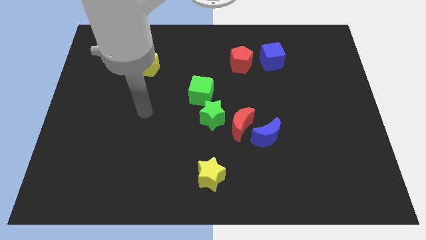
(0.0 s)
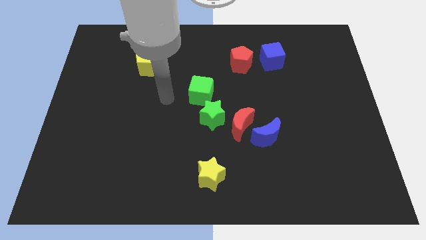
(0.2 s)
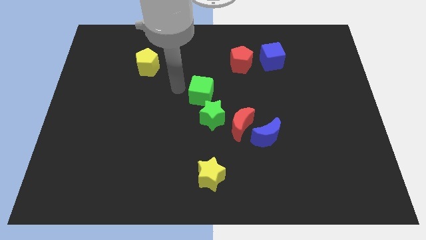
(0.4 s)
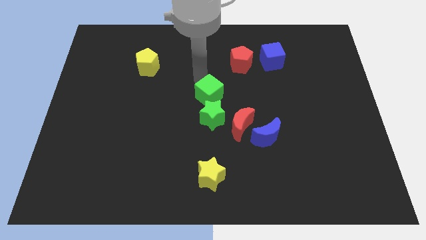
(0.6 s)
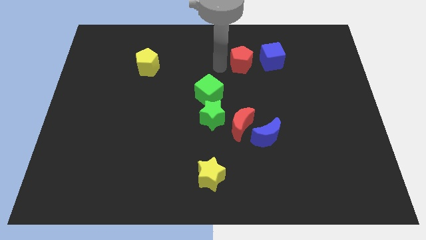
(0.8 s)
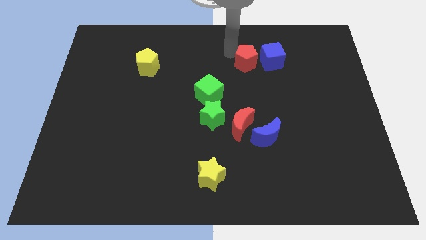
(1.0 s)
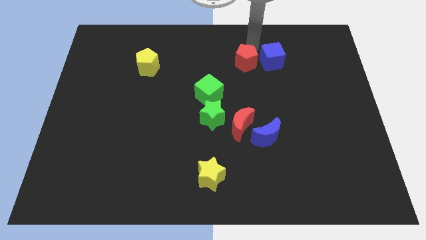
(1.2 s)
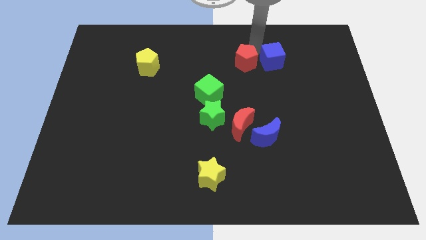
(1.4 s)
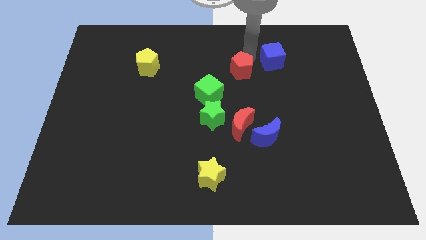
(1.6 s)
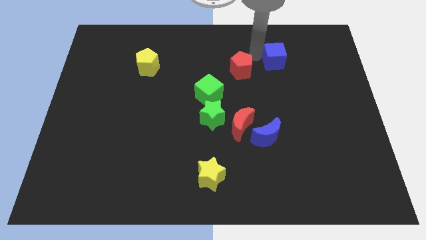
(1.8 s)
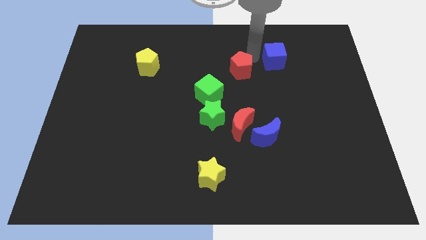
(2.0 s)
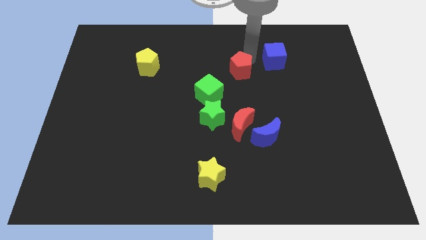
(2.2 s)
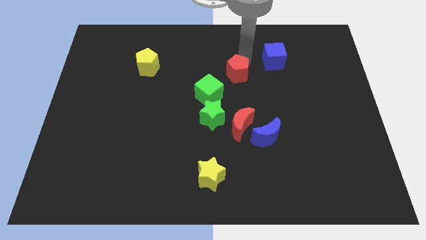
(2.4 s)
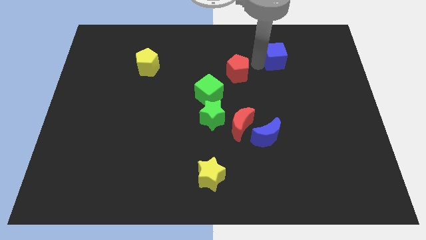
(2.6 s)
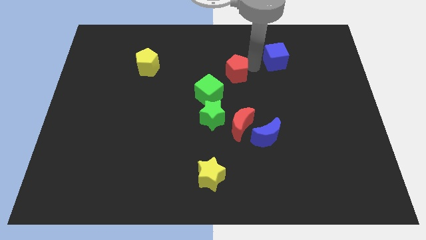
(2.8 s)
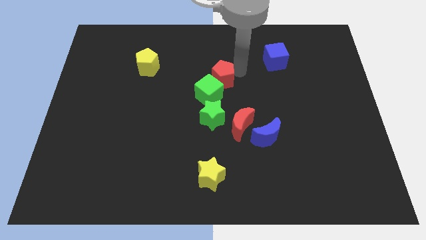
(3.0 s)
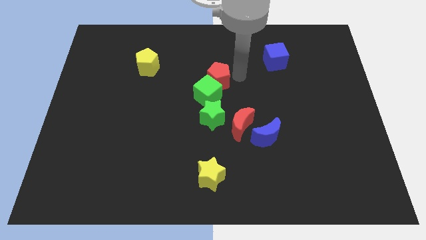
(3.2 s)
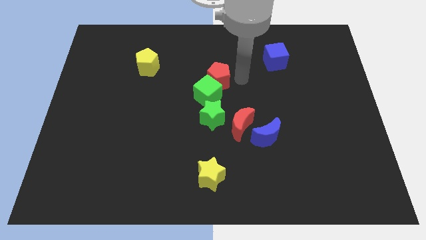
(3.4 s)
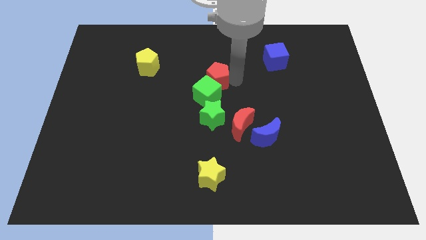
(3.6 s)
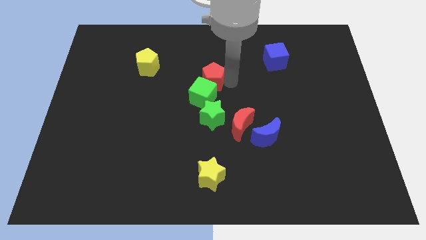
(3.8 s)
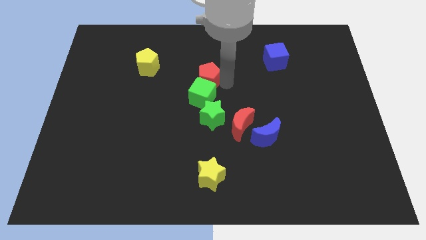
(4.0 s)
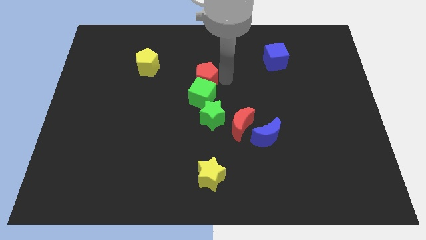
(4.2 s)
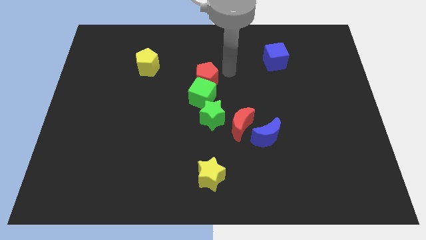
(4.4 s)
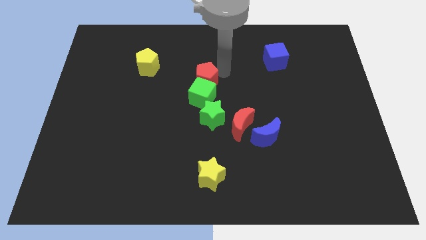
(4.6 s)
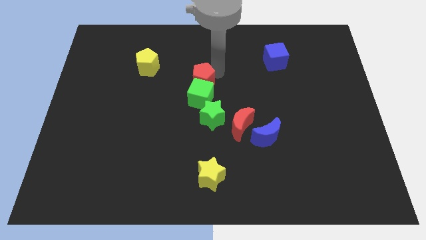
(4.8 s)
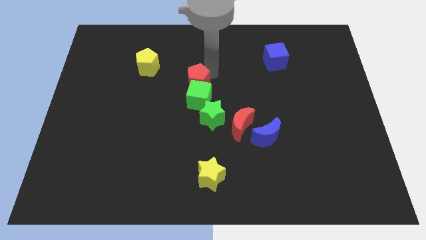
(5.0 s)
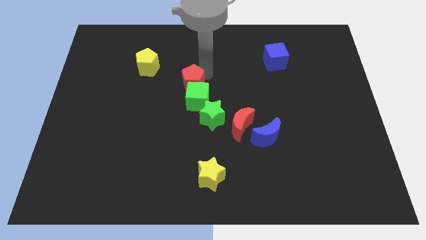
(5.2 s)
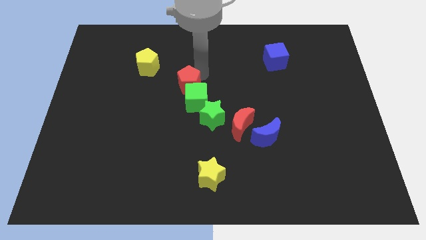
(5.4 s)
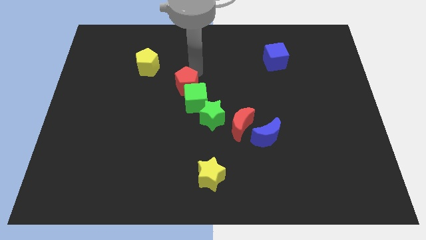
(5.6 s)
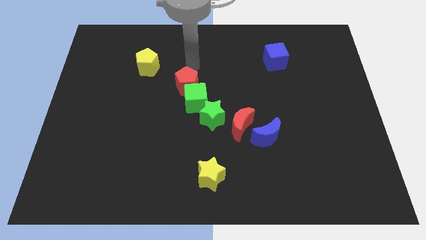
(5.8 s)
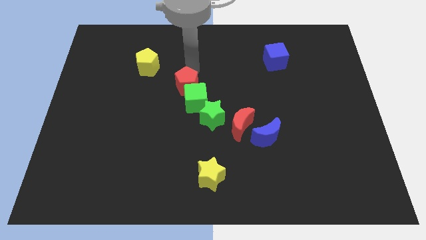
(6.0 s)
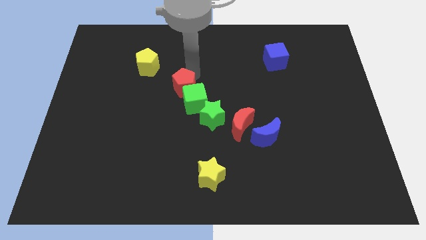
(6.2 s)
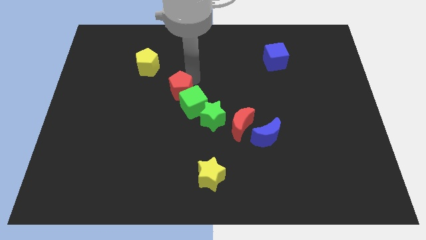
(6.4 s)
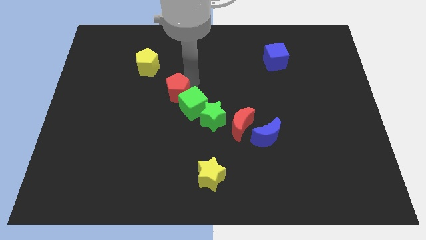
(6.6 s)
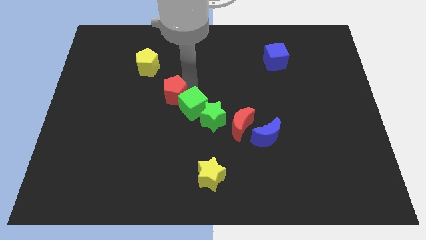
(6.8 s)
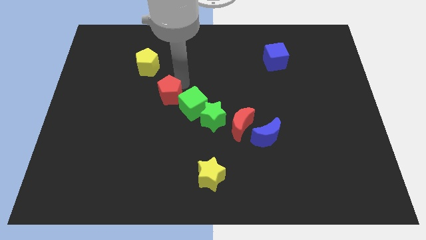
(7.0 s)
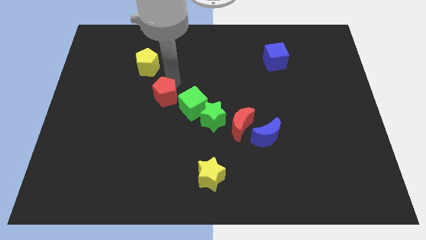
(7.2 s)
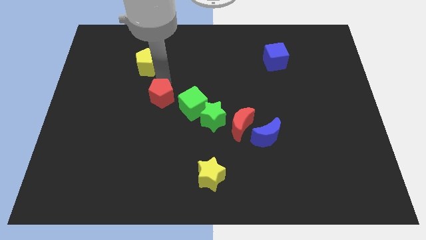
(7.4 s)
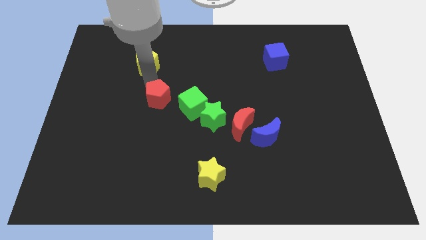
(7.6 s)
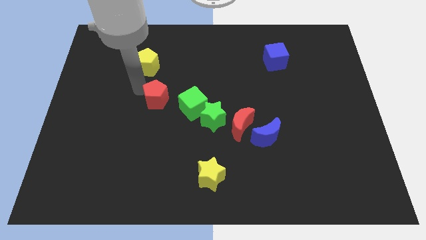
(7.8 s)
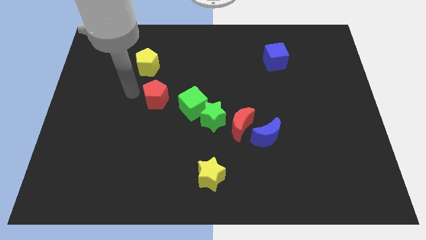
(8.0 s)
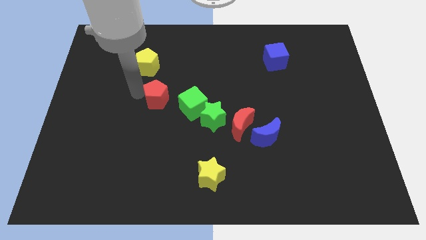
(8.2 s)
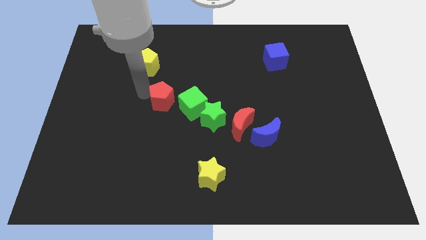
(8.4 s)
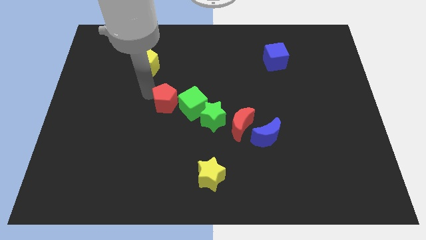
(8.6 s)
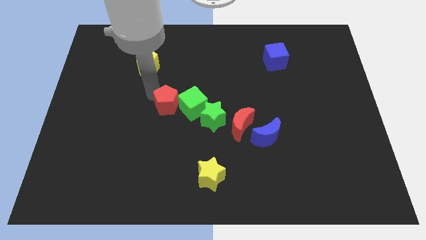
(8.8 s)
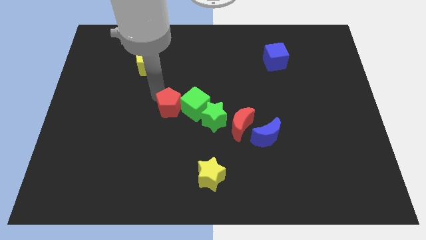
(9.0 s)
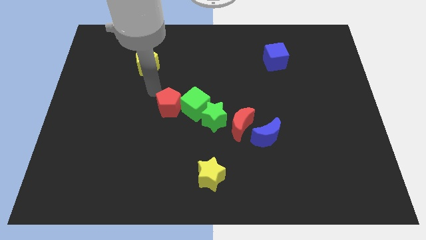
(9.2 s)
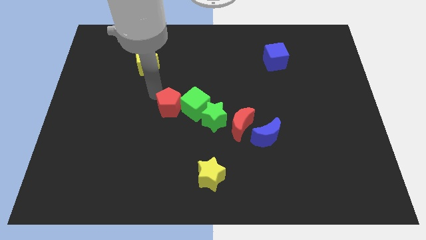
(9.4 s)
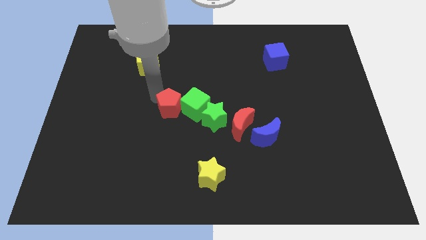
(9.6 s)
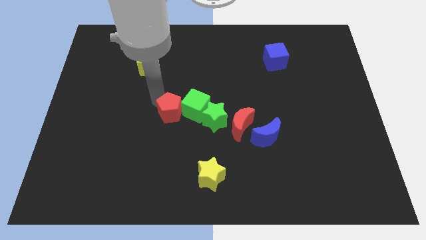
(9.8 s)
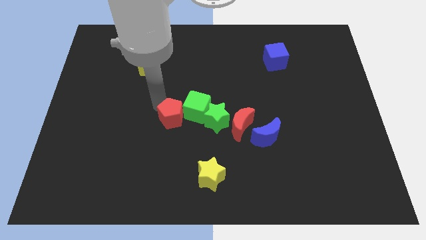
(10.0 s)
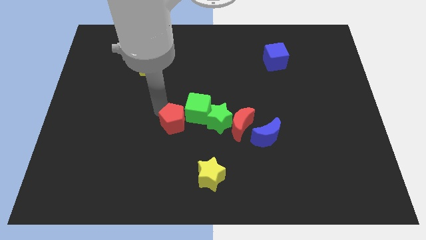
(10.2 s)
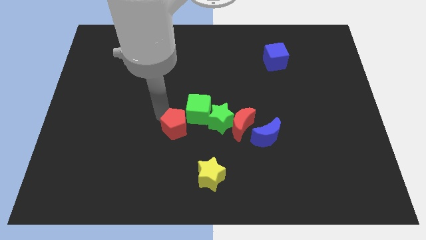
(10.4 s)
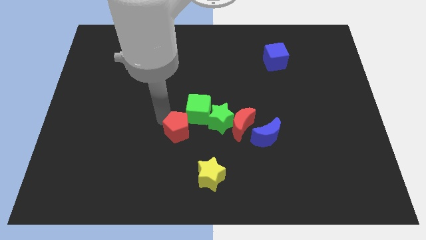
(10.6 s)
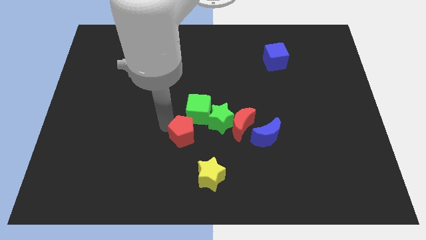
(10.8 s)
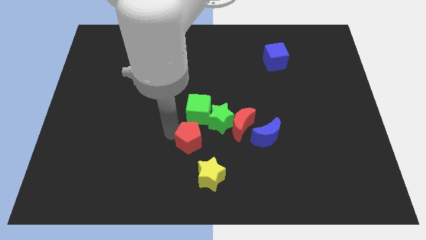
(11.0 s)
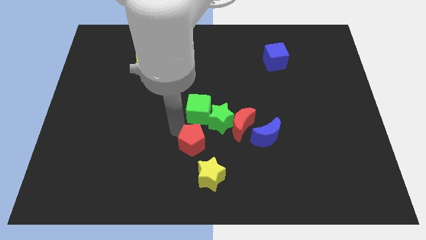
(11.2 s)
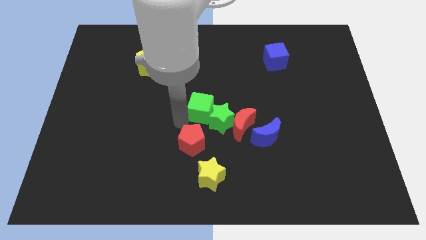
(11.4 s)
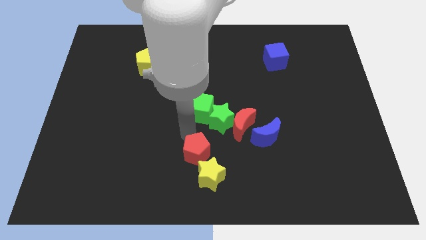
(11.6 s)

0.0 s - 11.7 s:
slide the red pentagon next to the yellow star
